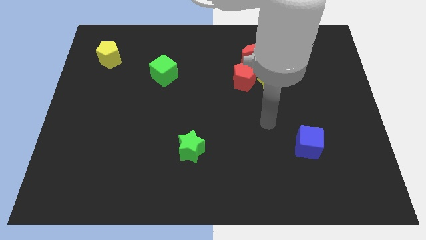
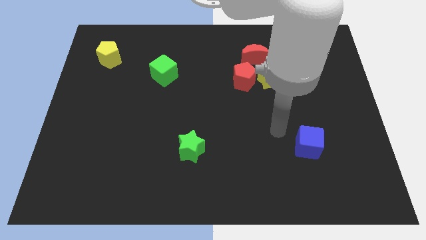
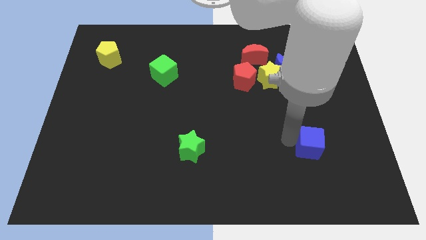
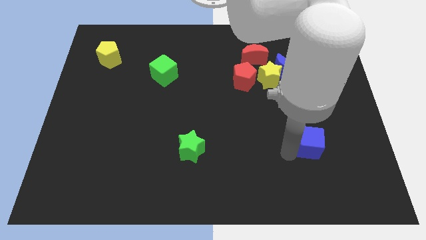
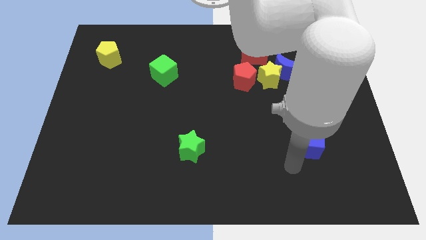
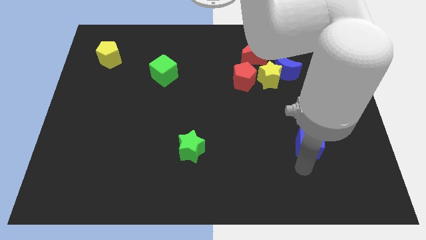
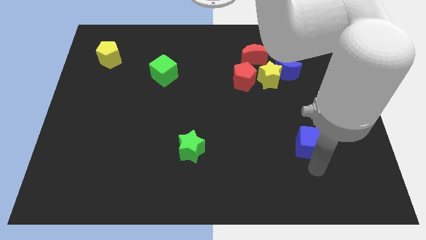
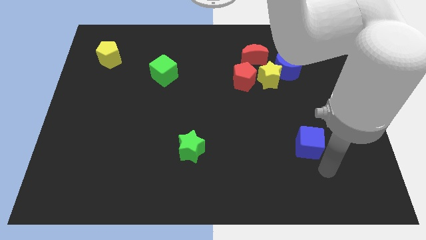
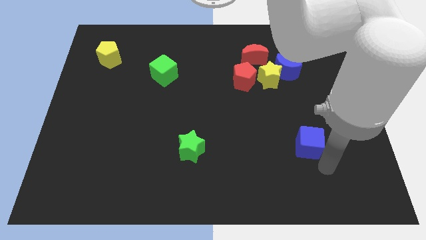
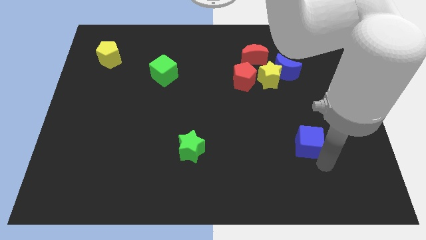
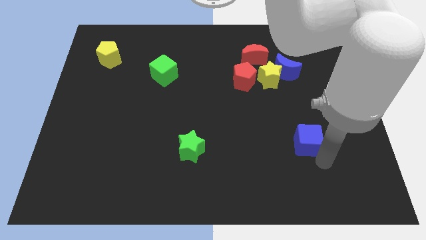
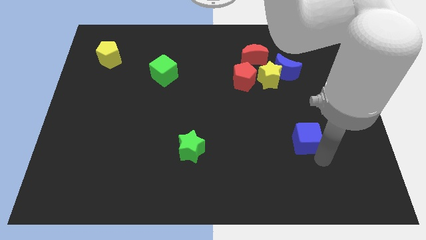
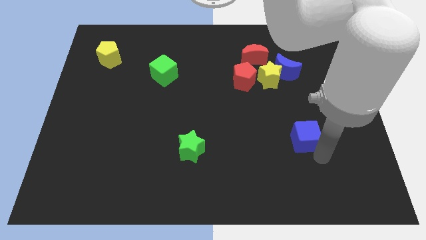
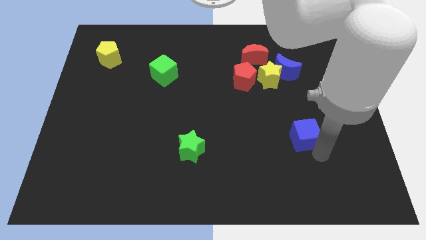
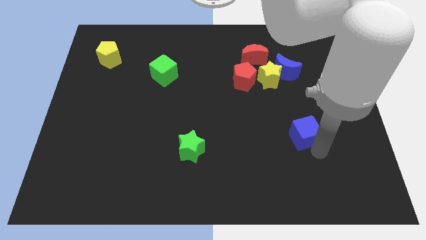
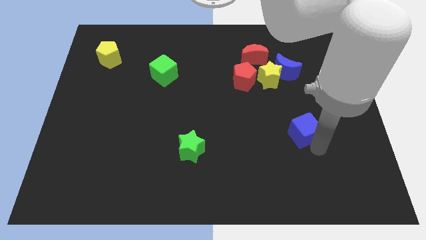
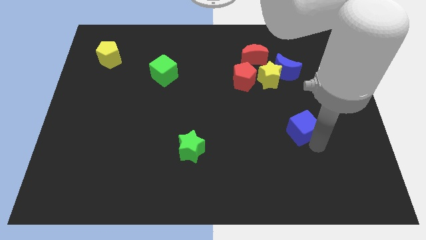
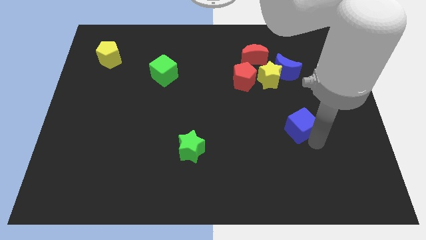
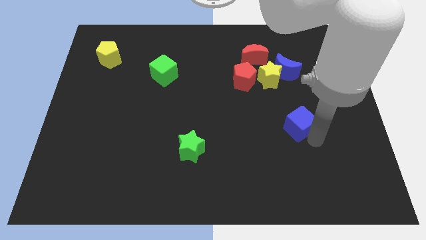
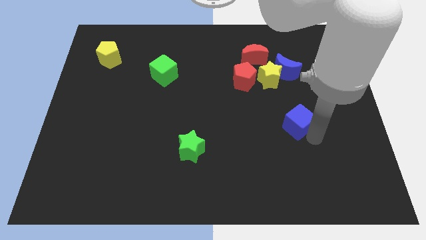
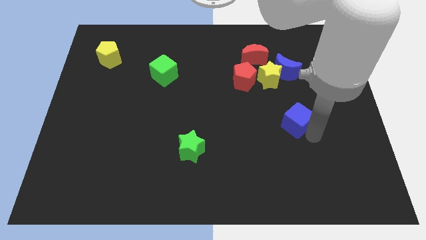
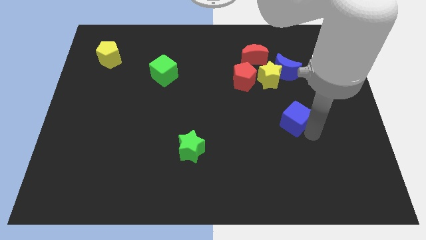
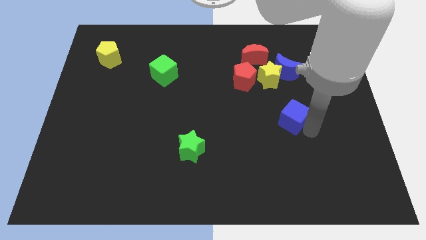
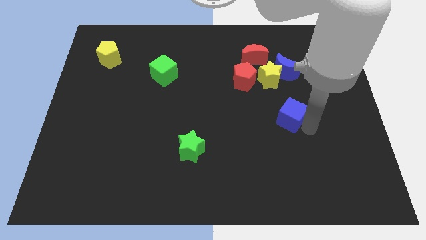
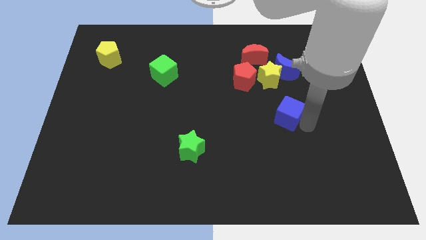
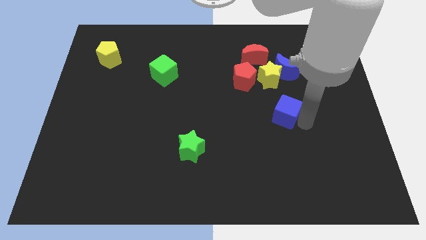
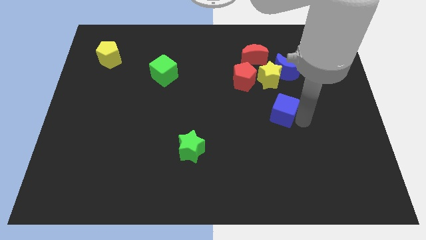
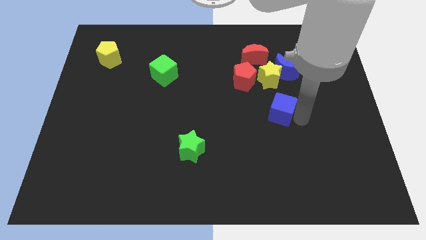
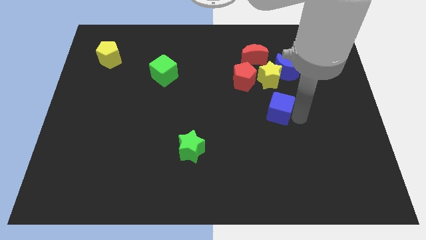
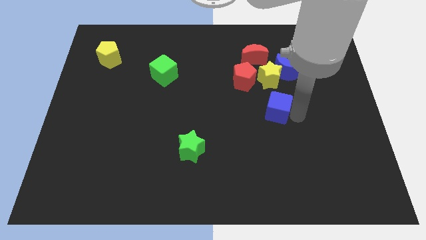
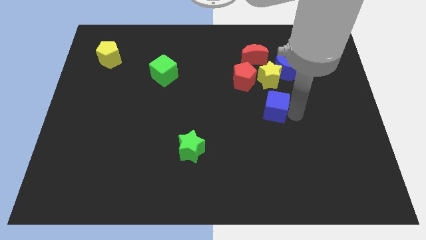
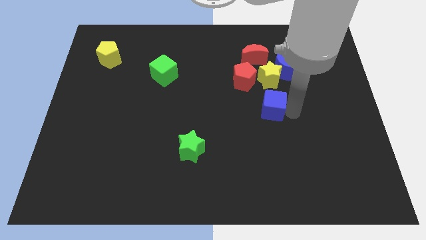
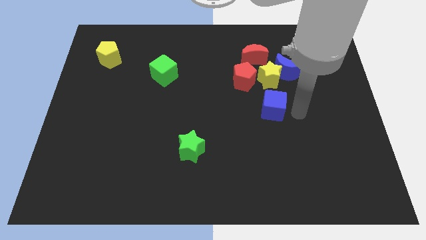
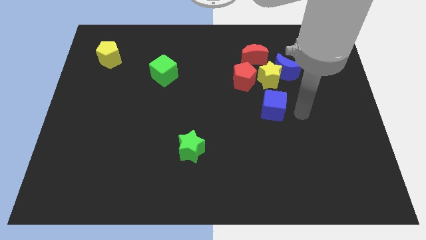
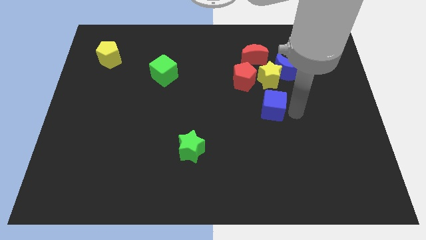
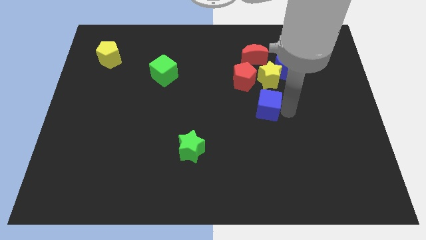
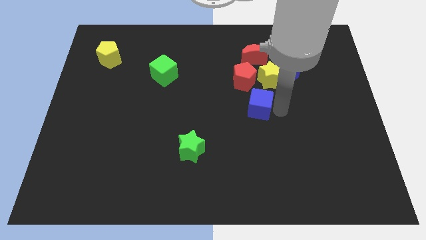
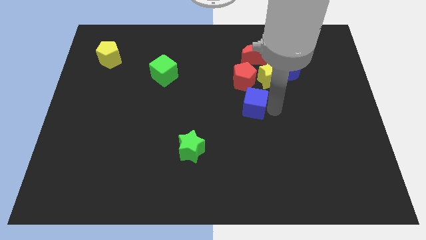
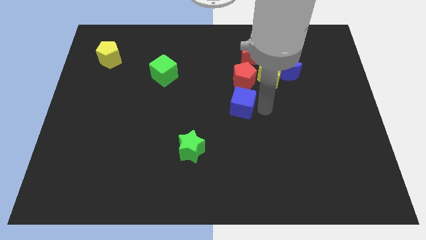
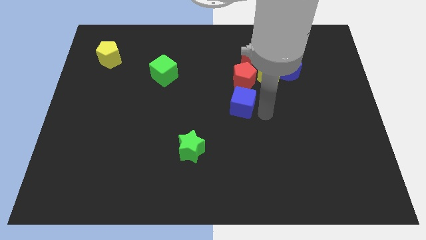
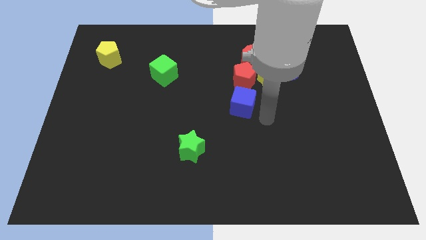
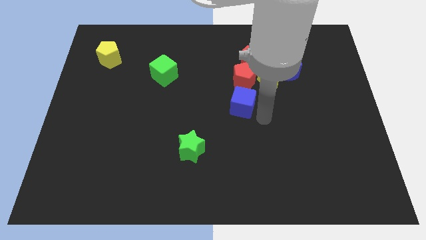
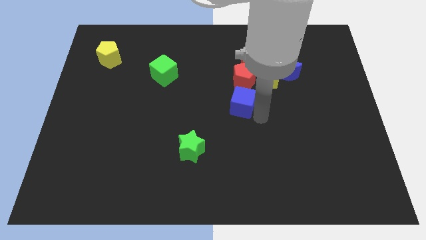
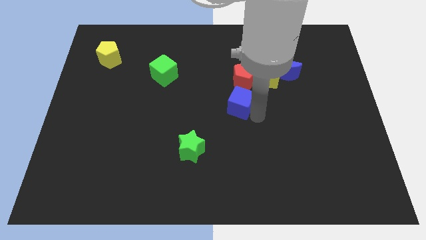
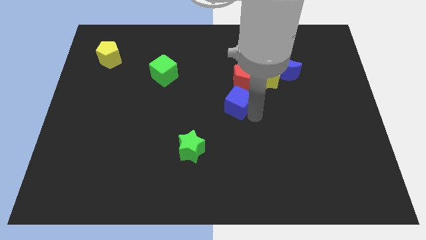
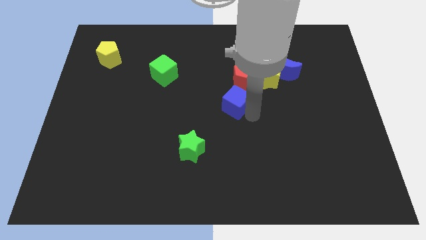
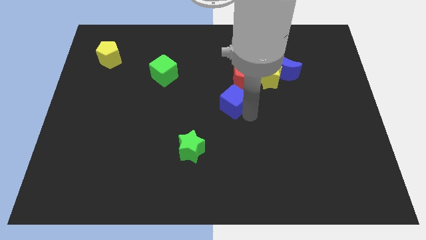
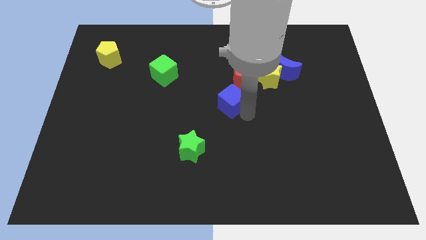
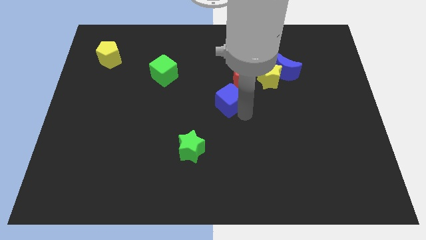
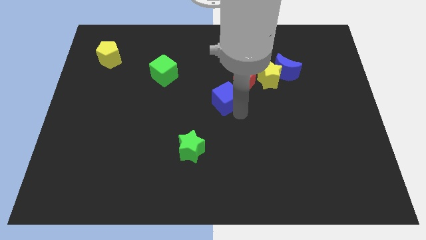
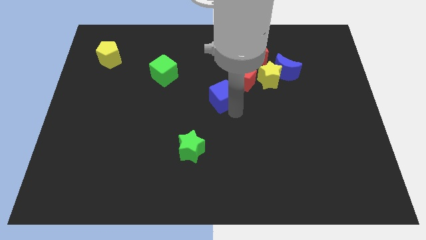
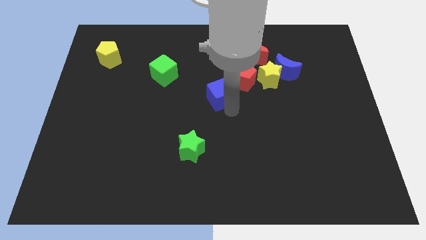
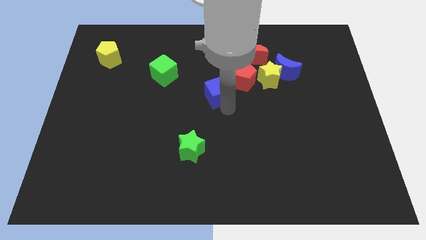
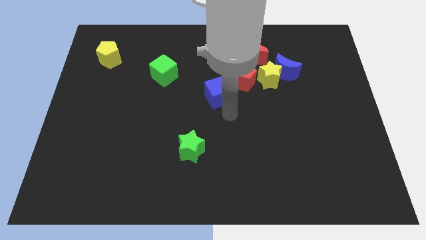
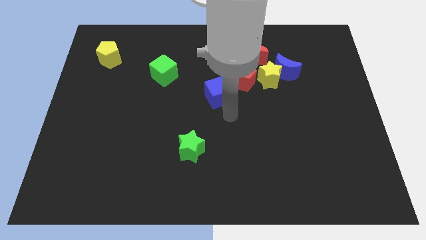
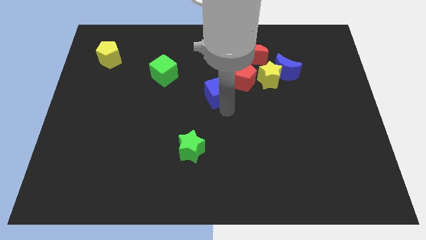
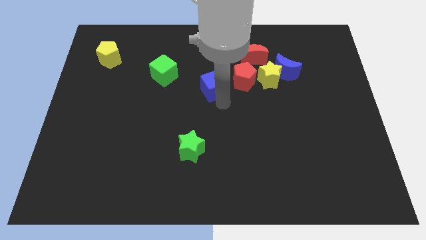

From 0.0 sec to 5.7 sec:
push the blue cube just right of the green cube

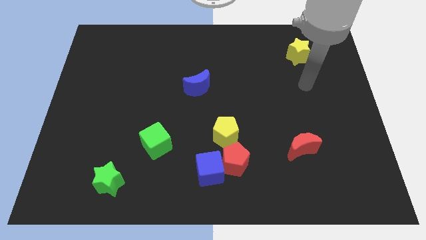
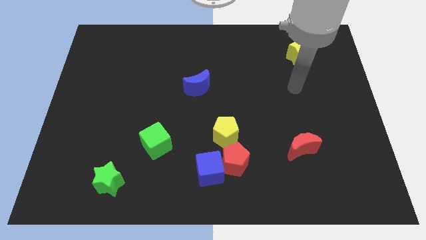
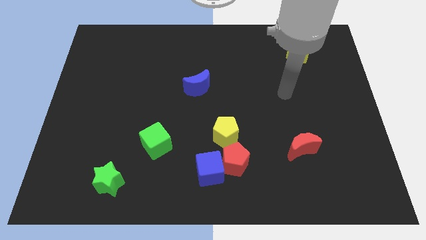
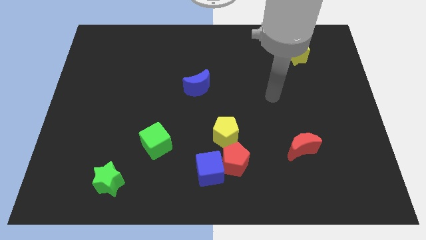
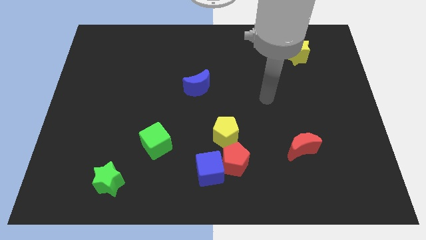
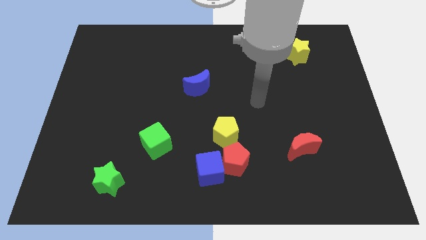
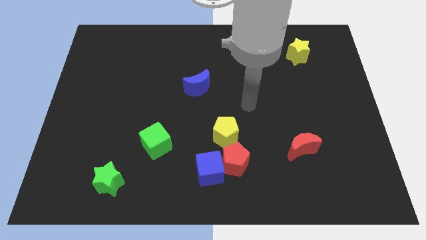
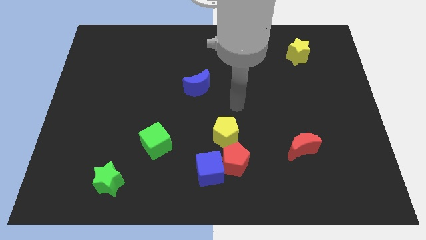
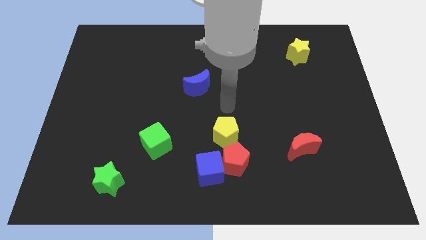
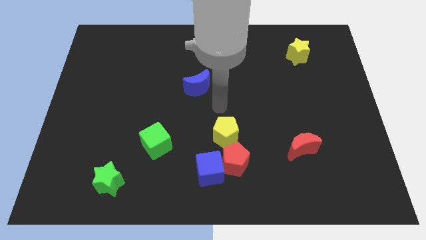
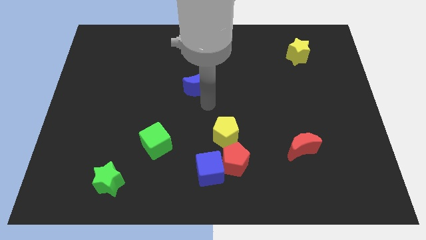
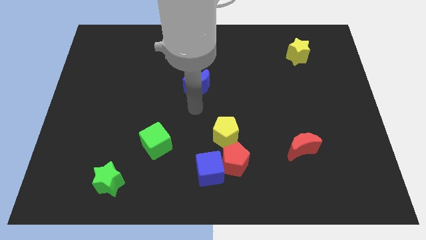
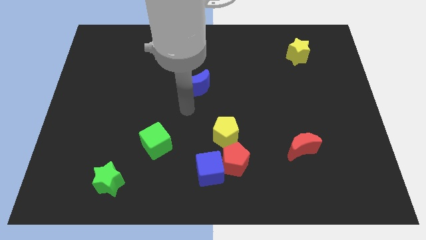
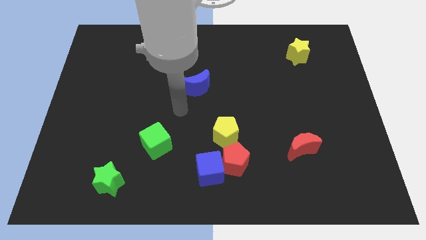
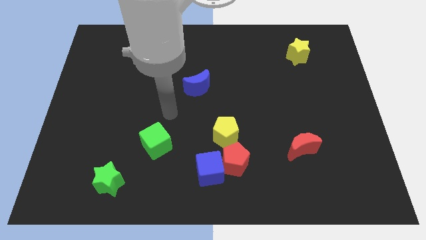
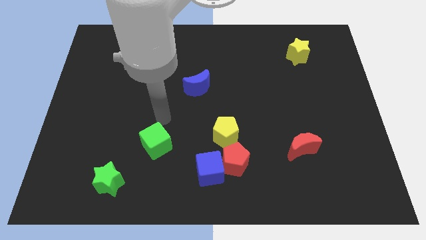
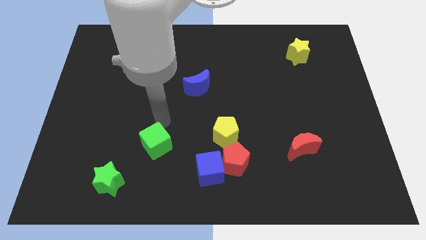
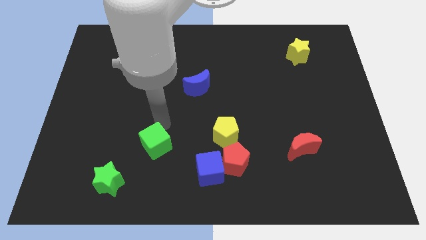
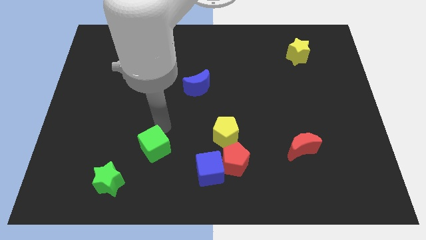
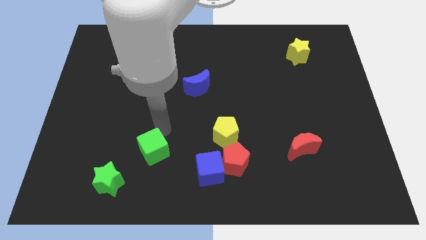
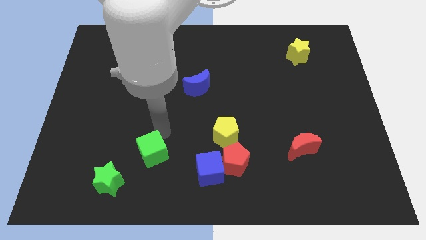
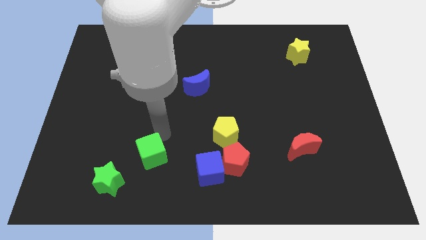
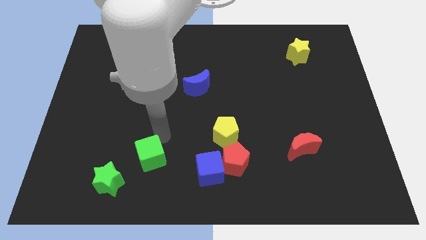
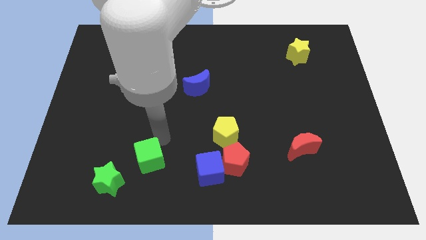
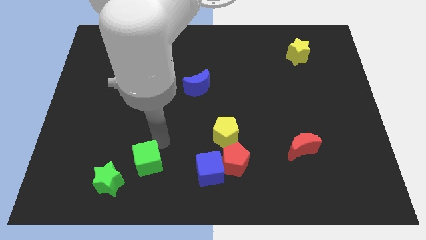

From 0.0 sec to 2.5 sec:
put the green cube to the right side of the green star
